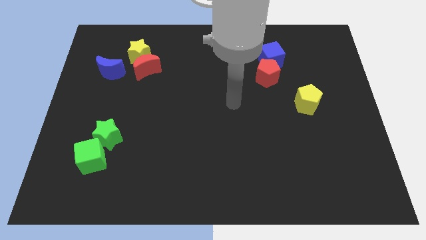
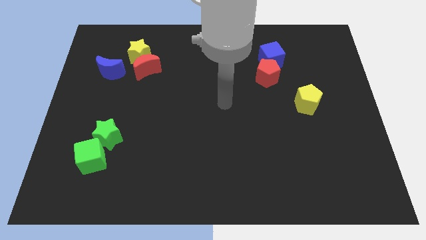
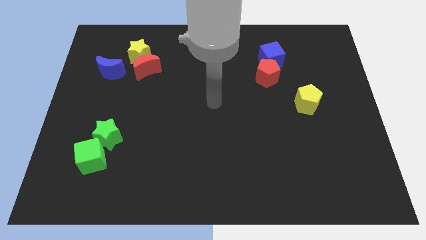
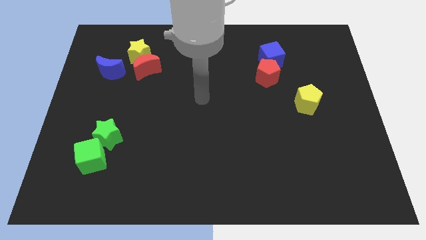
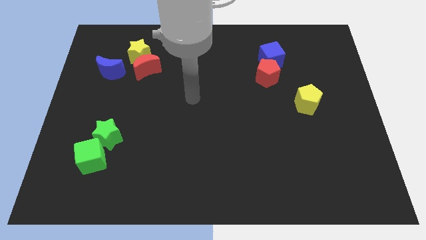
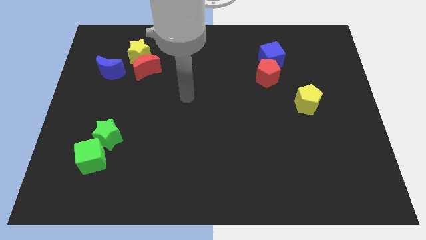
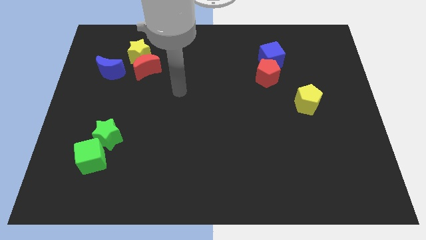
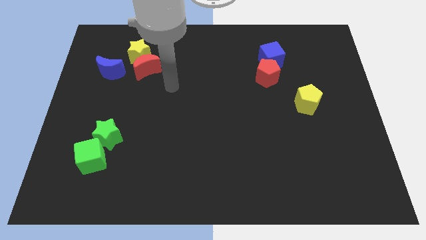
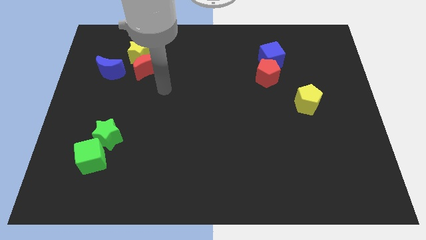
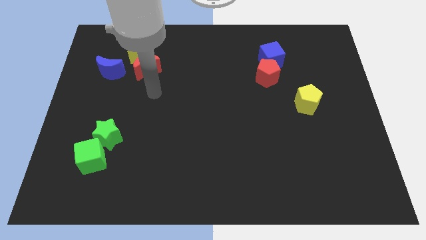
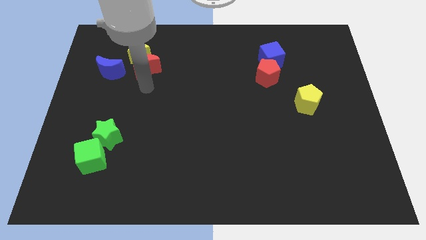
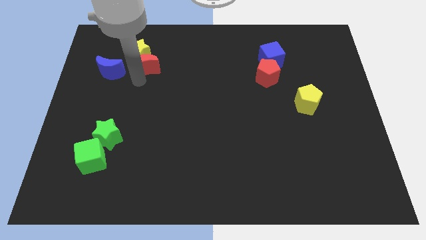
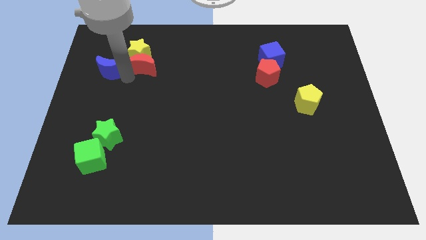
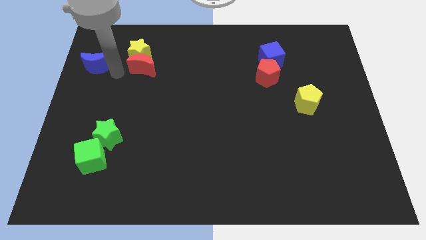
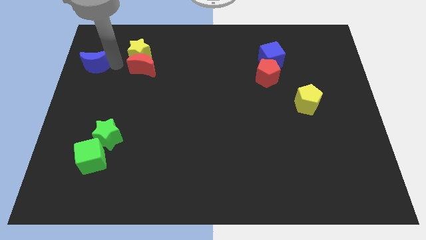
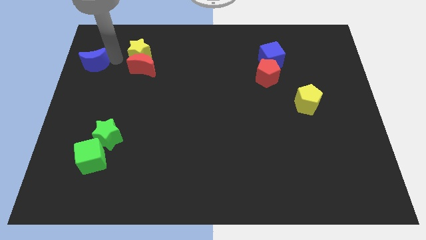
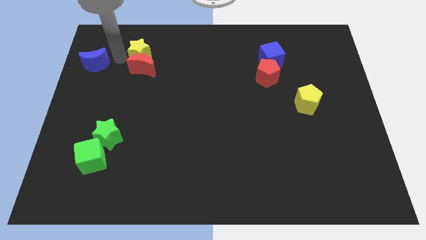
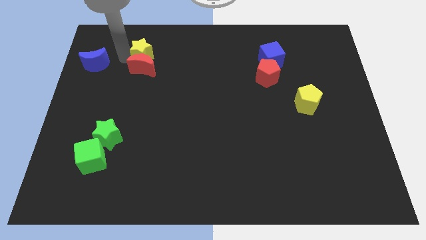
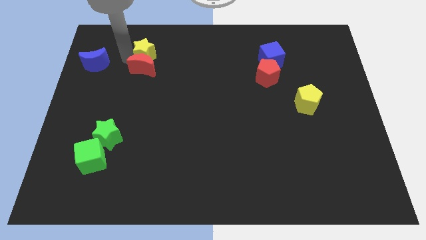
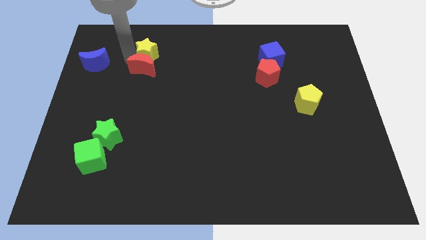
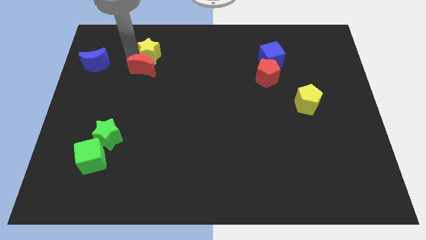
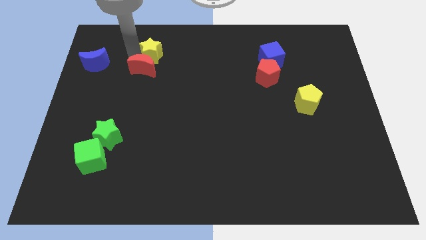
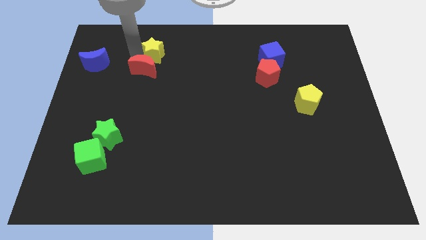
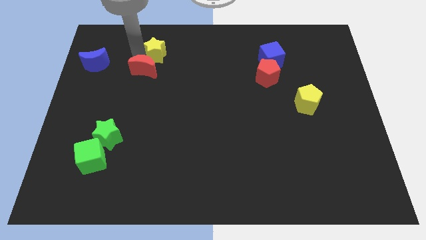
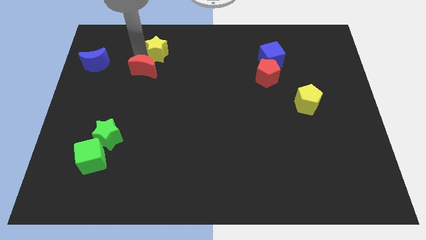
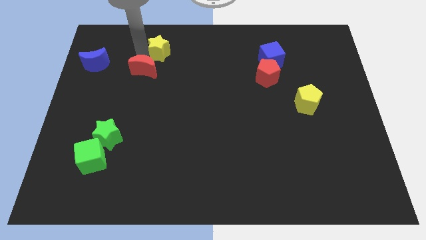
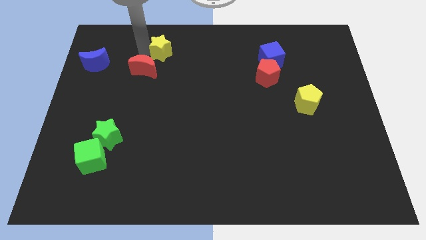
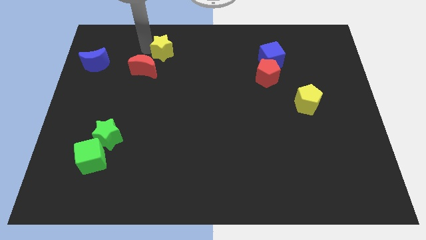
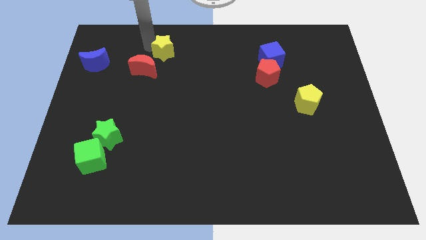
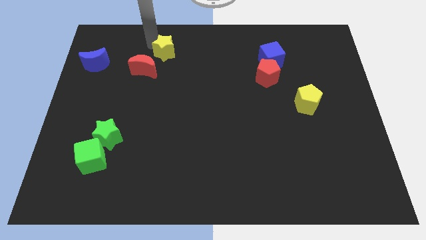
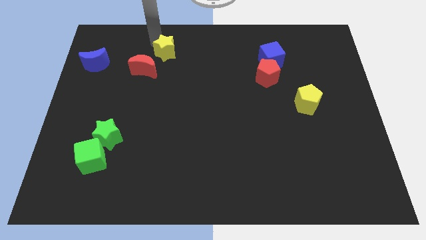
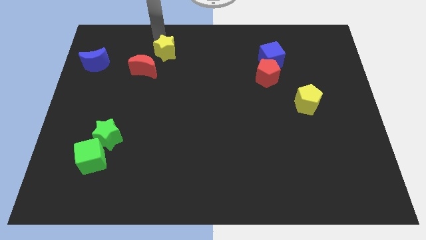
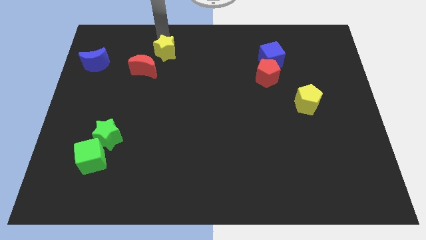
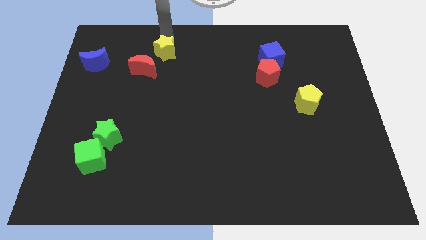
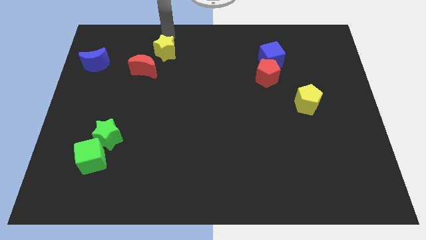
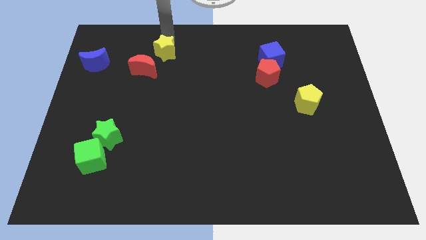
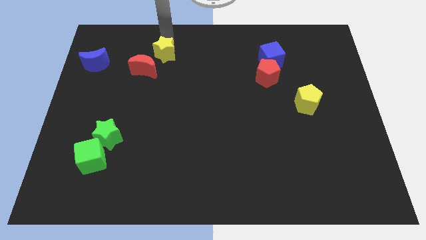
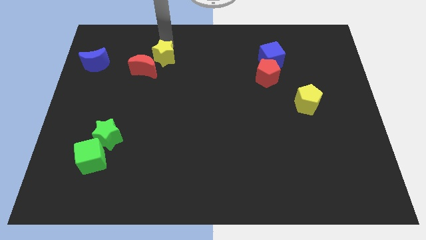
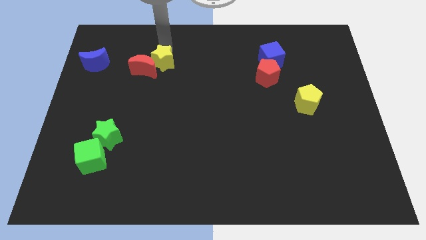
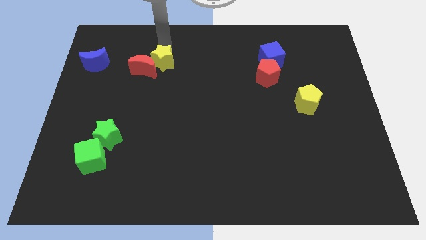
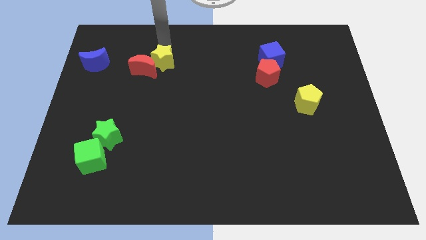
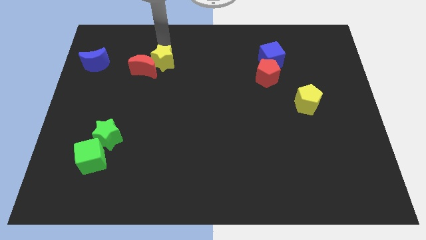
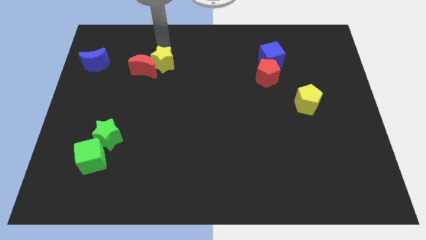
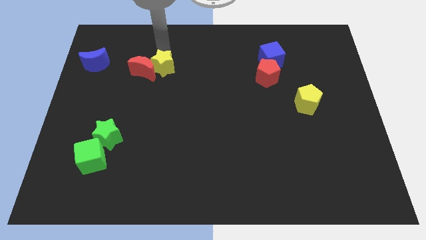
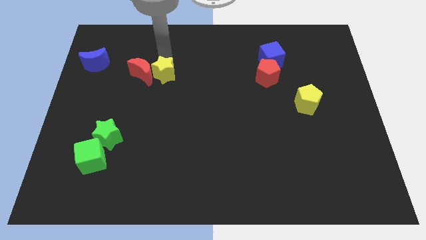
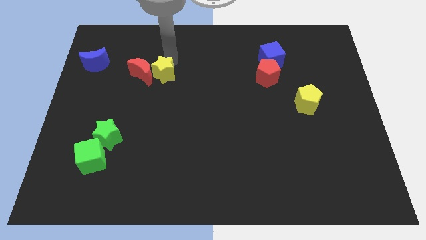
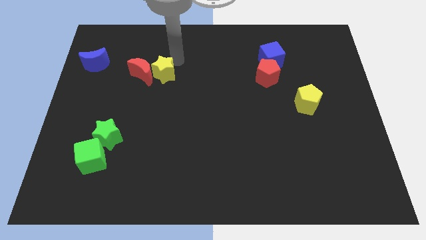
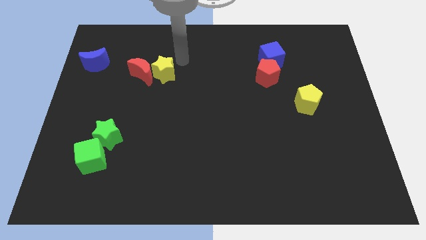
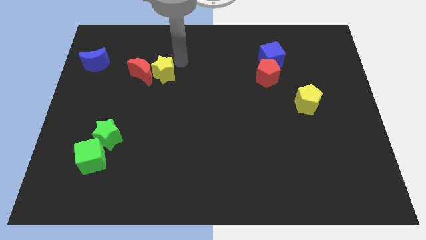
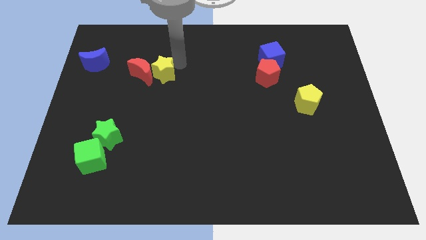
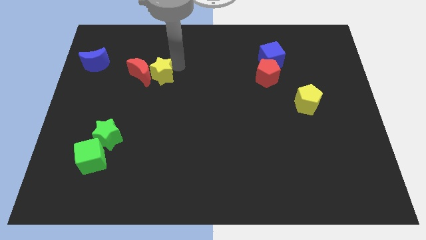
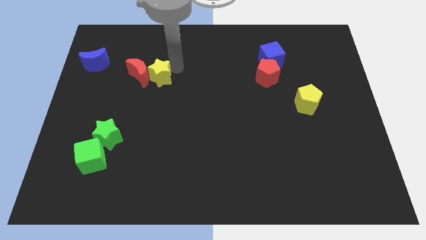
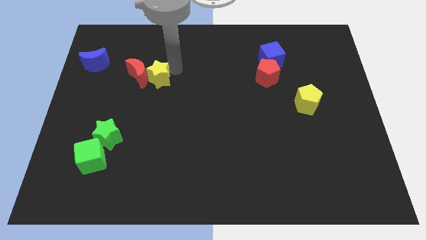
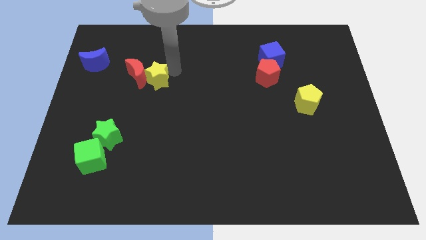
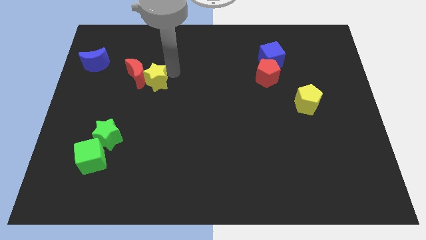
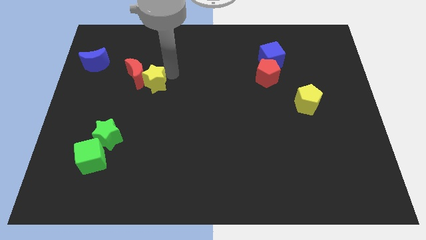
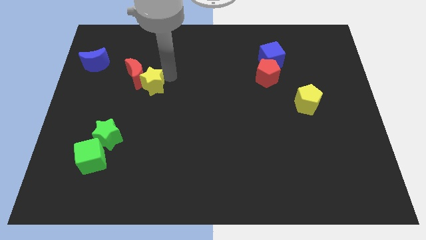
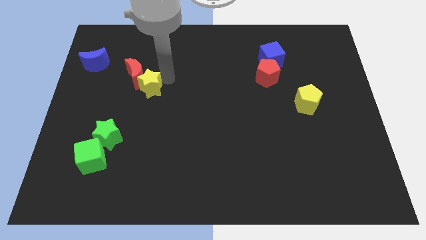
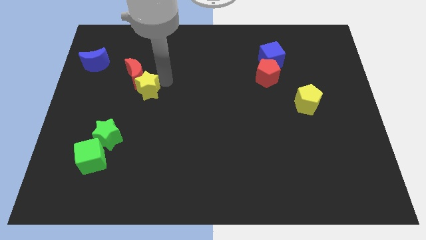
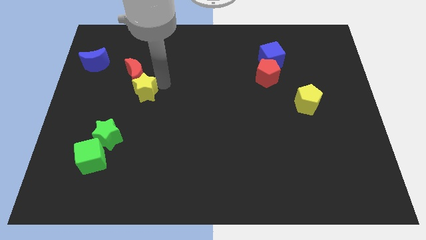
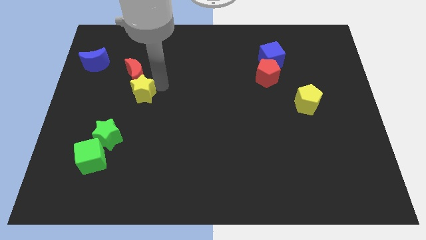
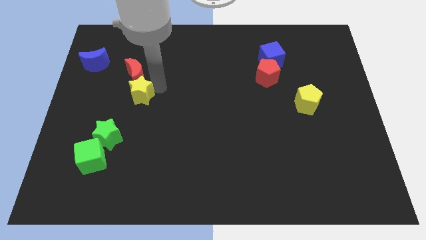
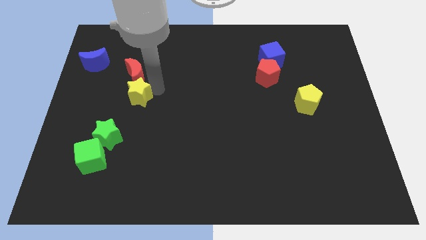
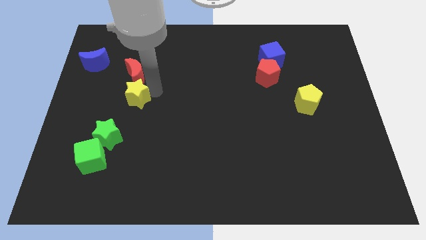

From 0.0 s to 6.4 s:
slide the yellow star to the top of the green star

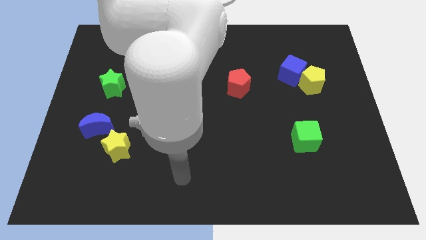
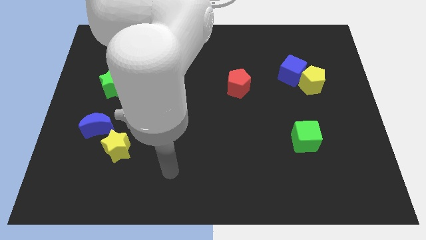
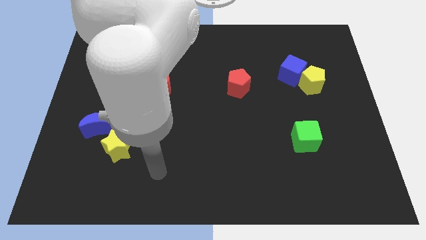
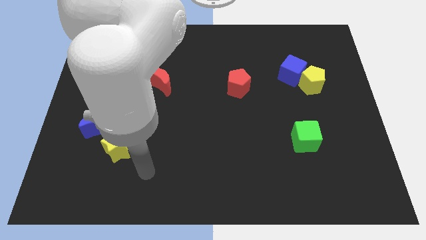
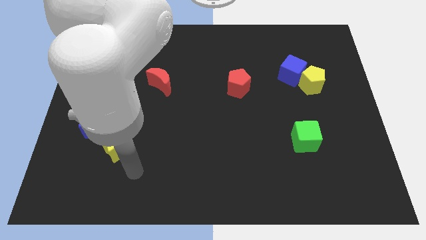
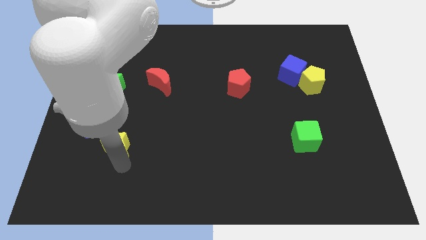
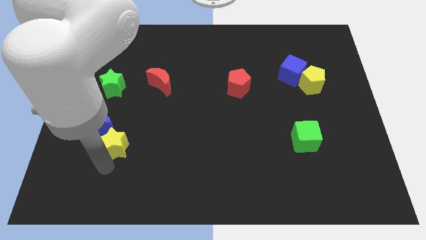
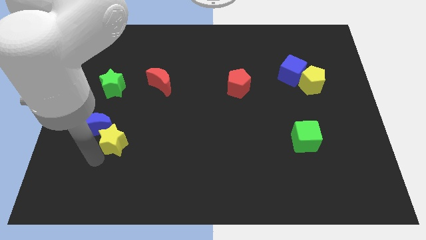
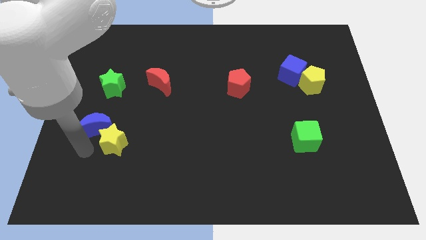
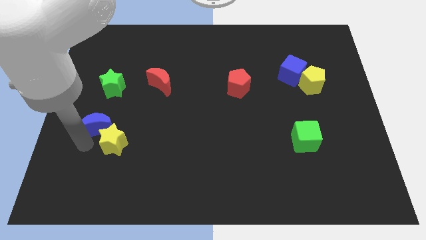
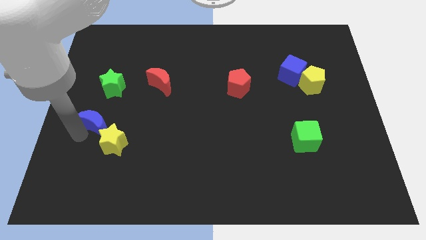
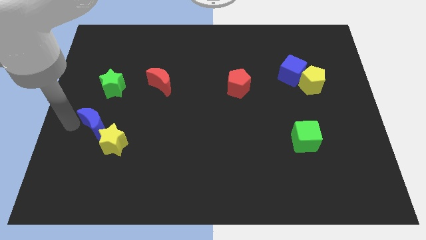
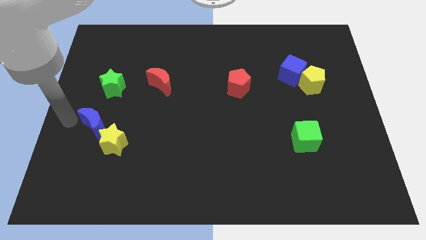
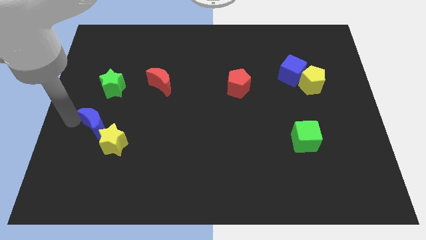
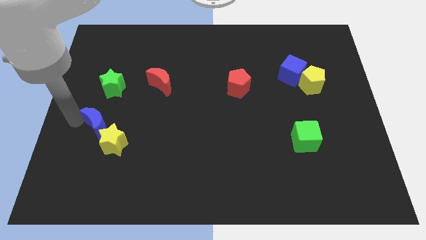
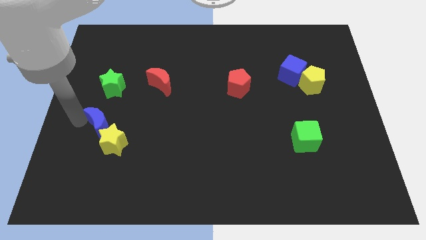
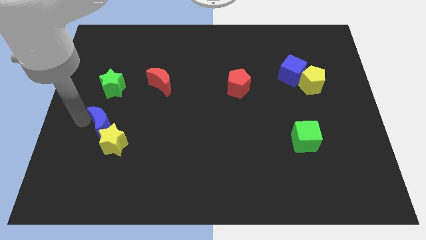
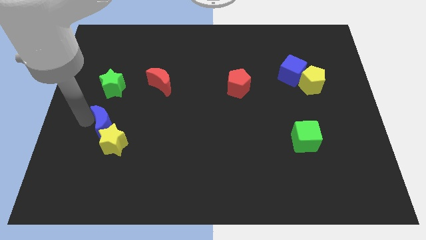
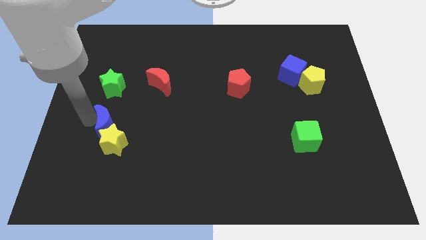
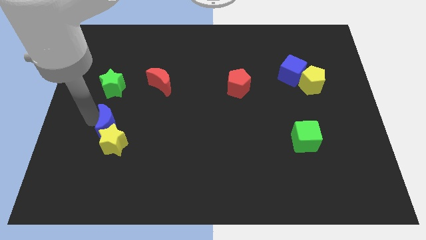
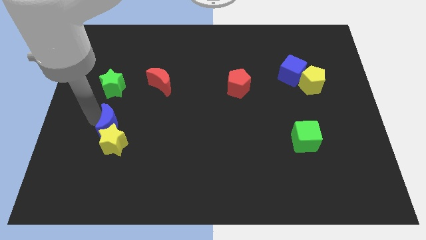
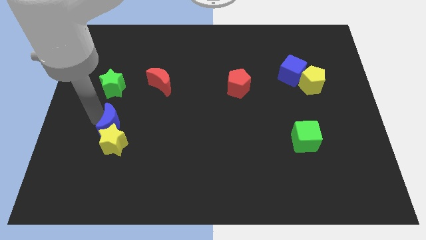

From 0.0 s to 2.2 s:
move the blue moon diagonally up and to the right of the yellow star
